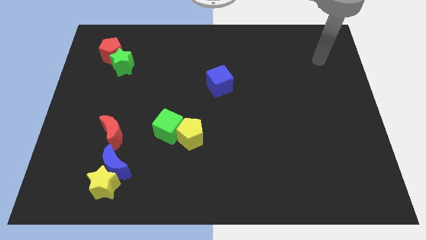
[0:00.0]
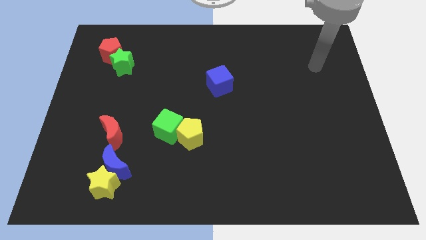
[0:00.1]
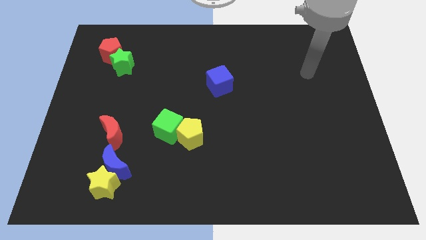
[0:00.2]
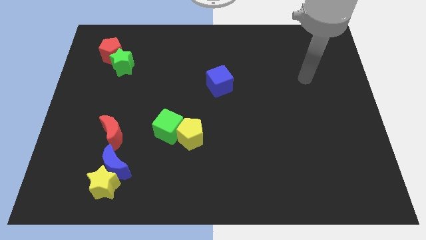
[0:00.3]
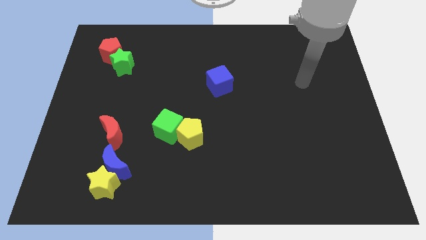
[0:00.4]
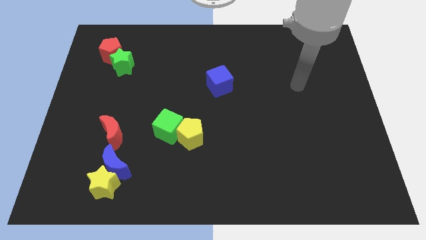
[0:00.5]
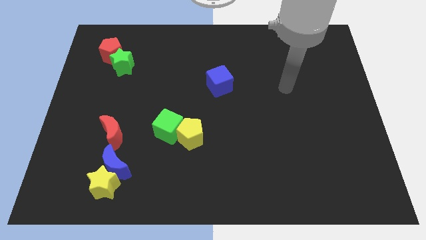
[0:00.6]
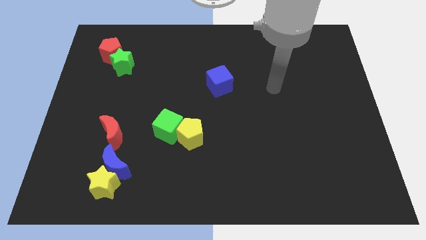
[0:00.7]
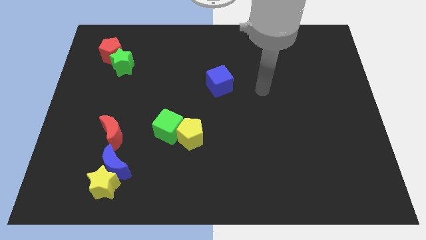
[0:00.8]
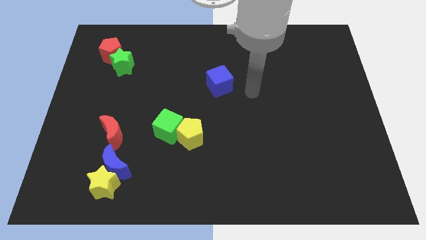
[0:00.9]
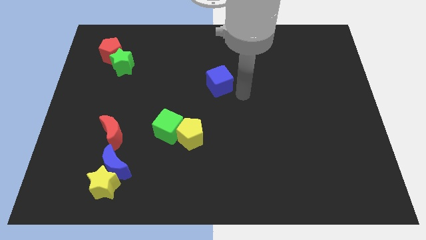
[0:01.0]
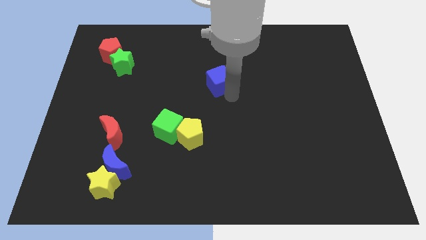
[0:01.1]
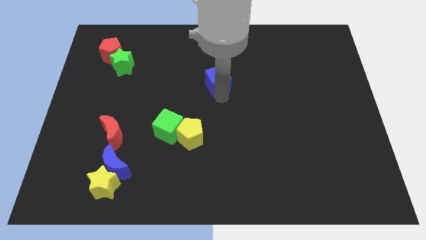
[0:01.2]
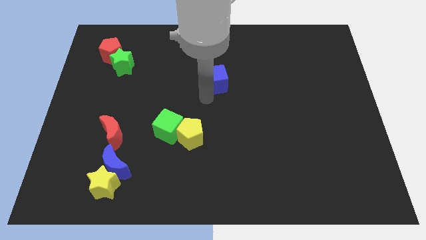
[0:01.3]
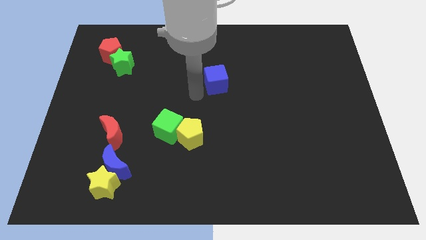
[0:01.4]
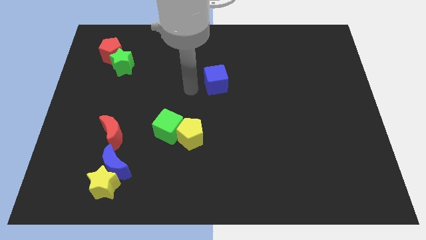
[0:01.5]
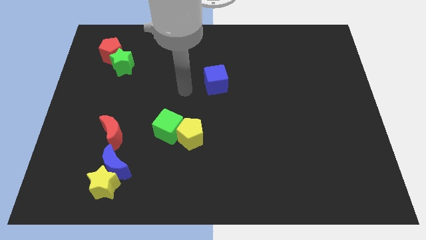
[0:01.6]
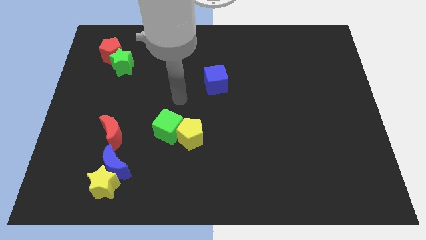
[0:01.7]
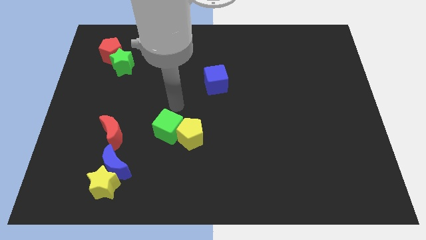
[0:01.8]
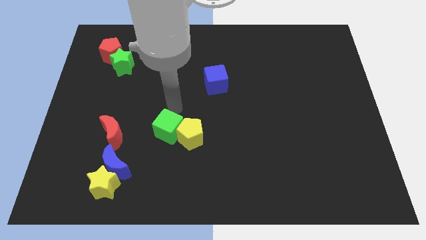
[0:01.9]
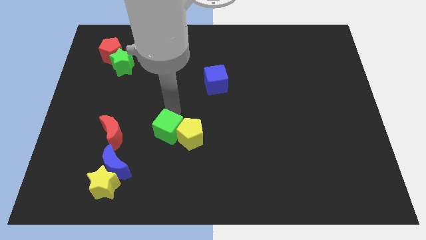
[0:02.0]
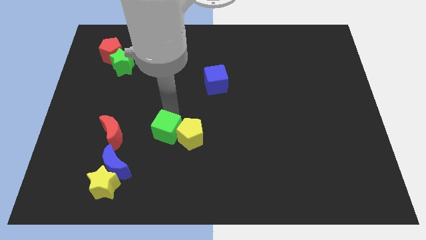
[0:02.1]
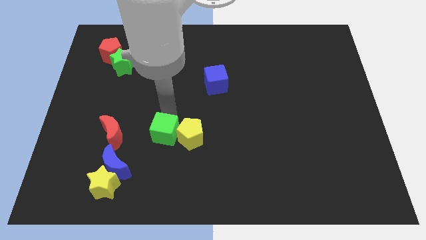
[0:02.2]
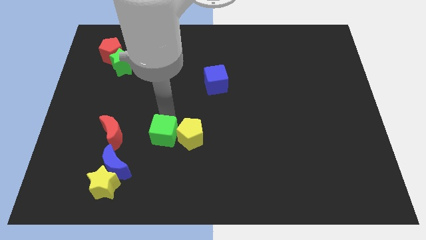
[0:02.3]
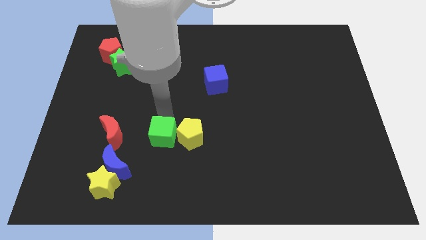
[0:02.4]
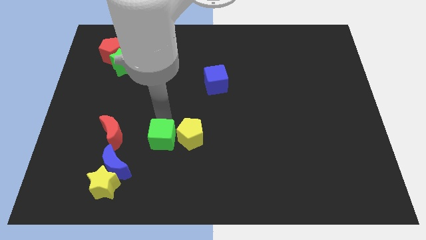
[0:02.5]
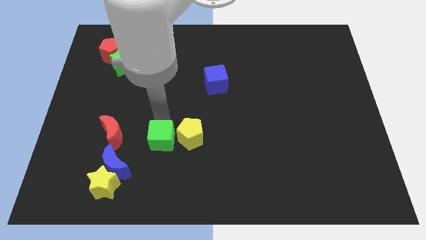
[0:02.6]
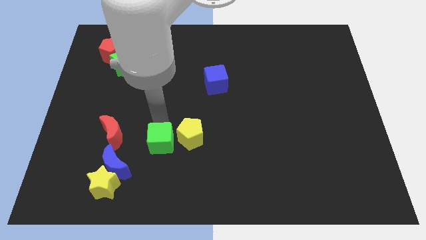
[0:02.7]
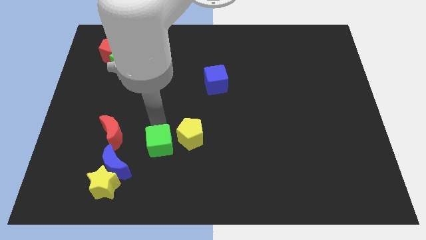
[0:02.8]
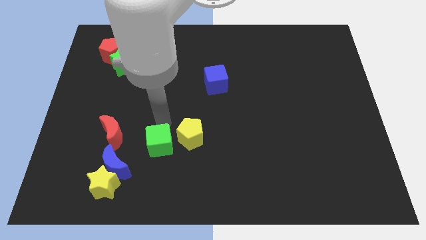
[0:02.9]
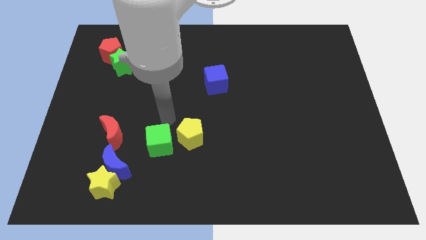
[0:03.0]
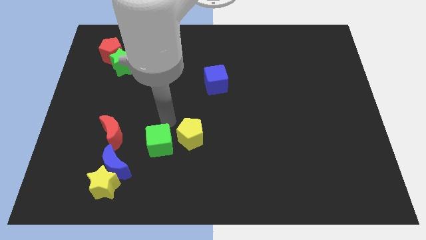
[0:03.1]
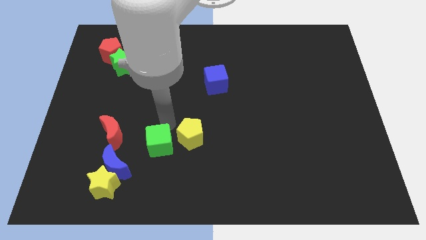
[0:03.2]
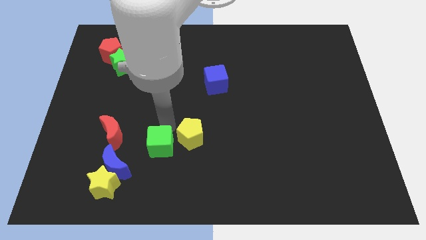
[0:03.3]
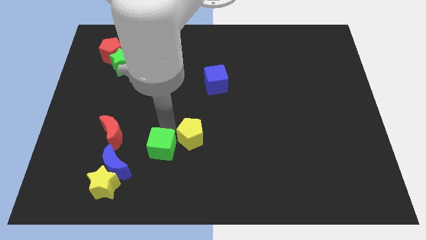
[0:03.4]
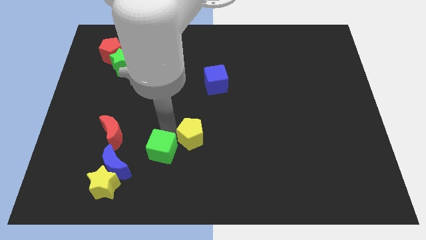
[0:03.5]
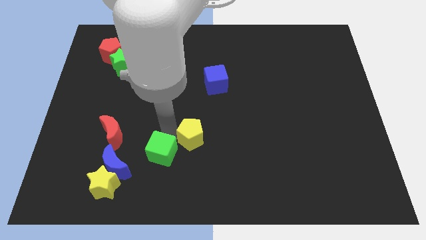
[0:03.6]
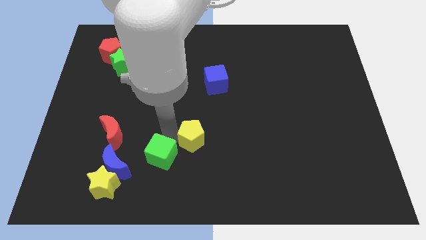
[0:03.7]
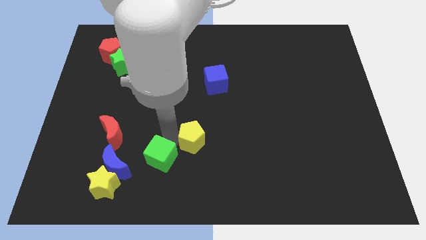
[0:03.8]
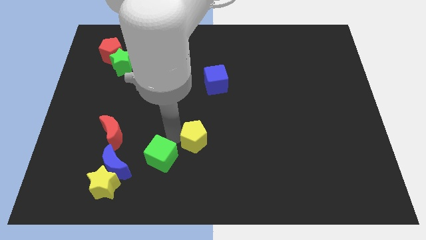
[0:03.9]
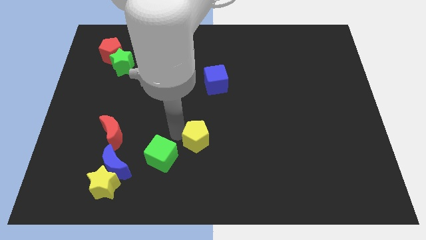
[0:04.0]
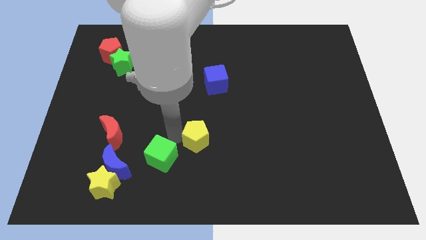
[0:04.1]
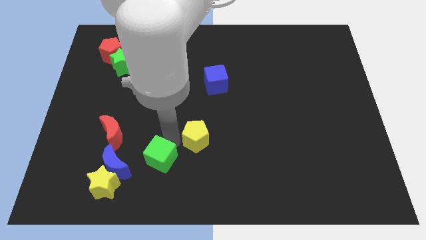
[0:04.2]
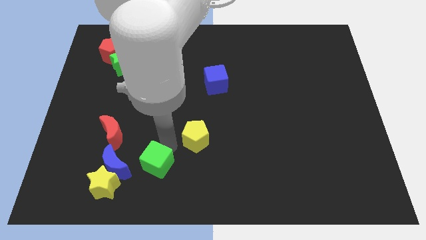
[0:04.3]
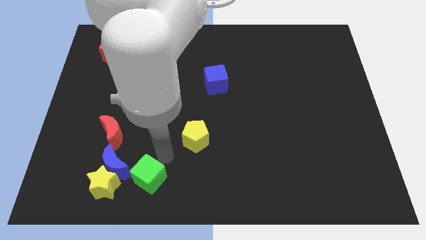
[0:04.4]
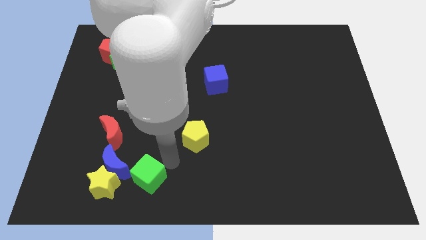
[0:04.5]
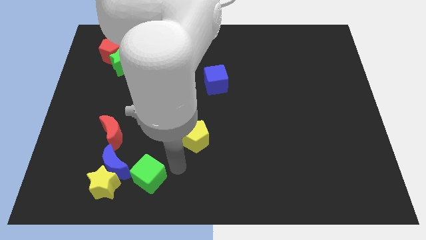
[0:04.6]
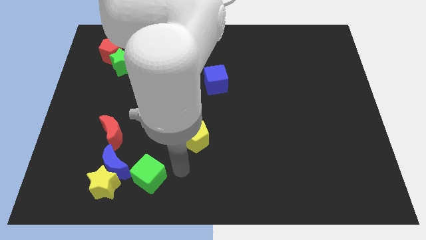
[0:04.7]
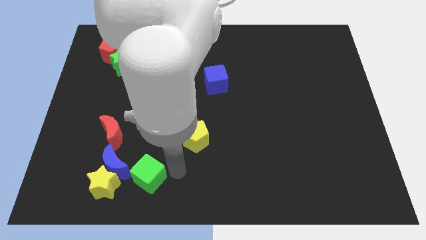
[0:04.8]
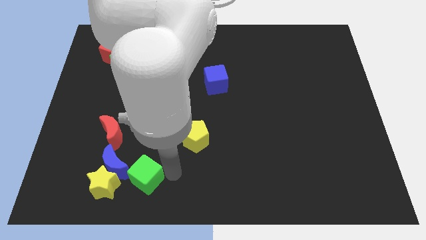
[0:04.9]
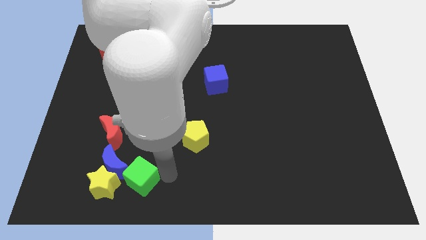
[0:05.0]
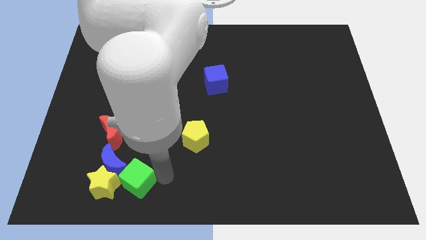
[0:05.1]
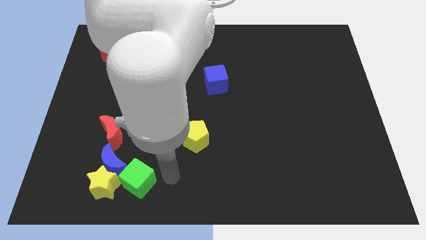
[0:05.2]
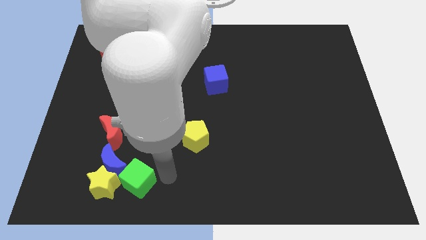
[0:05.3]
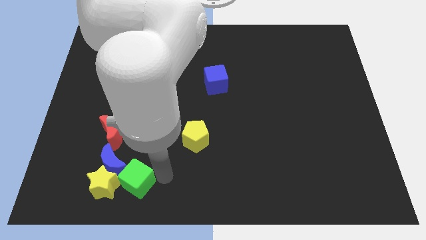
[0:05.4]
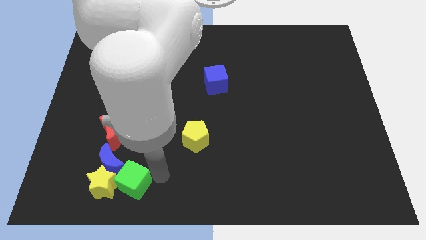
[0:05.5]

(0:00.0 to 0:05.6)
move the green cube to the yellow star

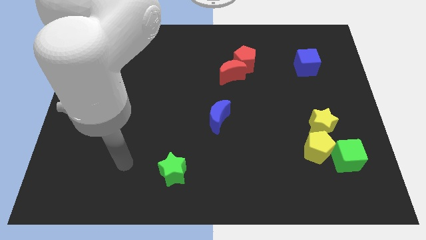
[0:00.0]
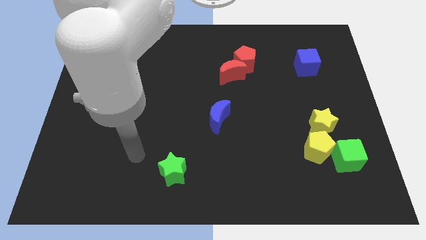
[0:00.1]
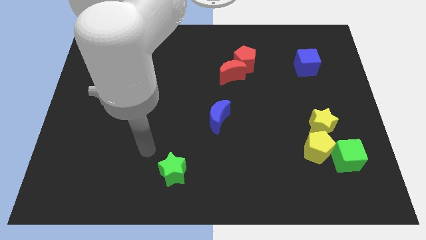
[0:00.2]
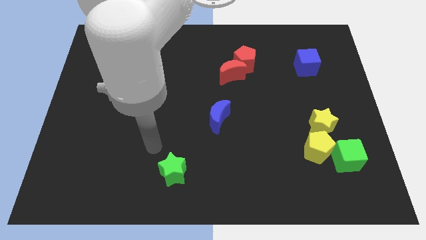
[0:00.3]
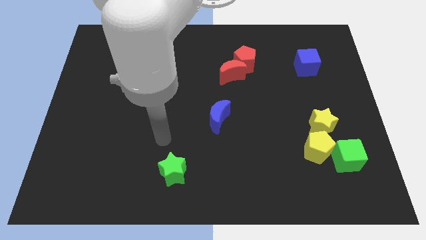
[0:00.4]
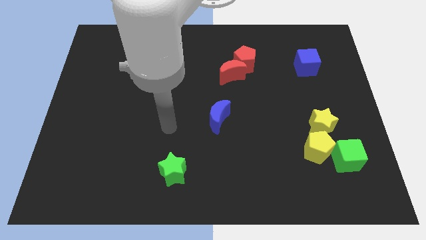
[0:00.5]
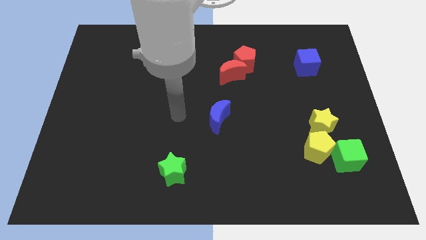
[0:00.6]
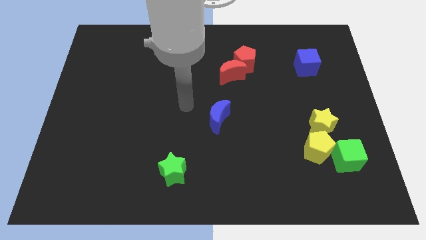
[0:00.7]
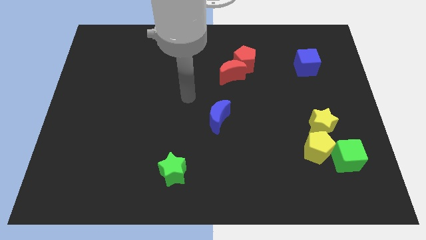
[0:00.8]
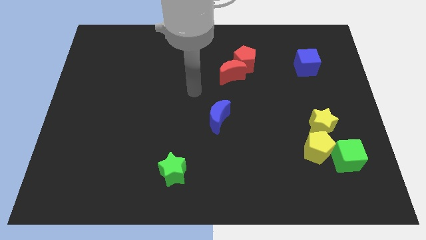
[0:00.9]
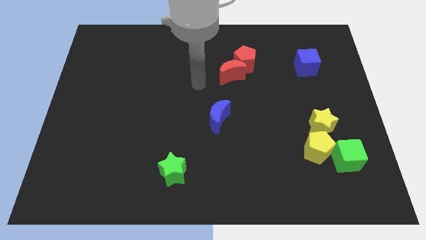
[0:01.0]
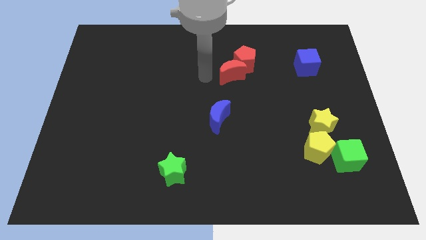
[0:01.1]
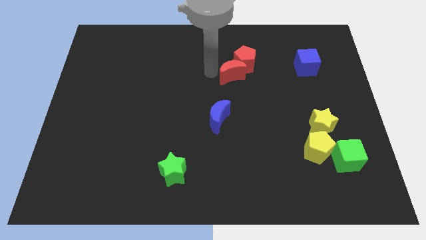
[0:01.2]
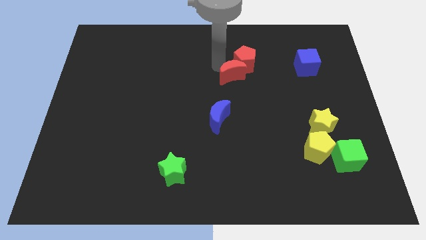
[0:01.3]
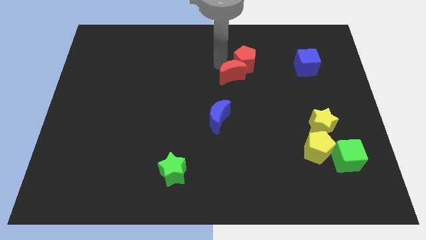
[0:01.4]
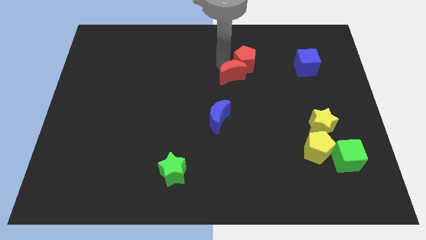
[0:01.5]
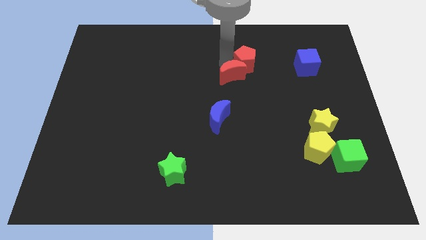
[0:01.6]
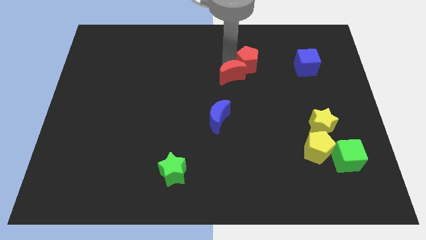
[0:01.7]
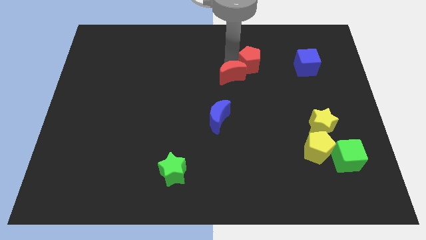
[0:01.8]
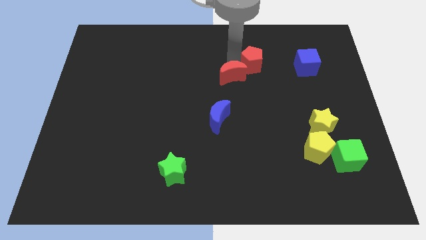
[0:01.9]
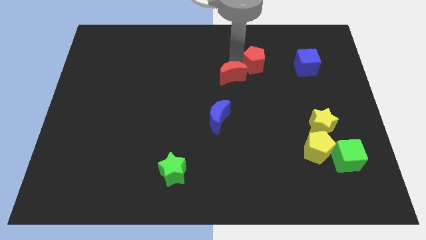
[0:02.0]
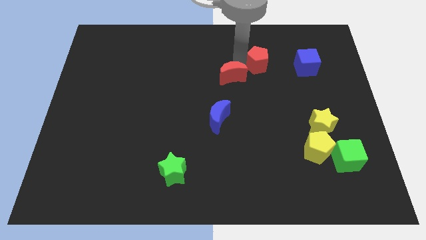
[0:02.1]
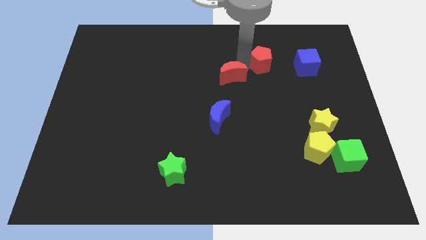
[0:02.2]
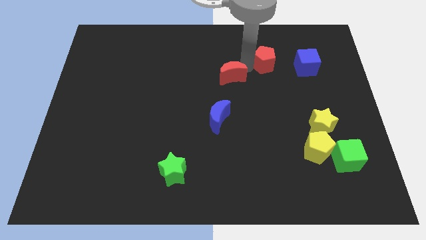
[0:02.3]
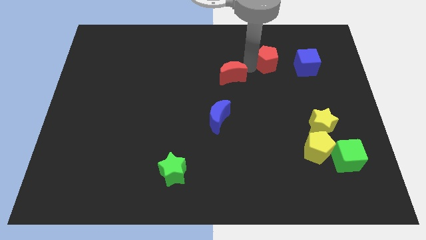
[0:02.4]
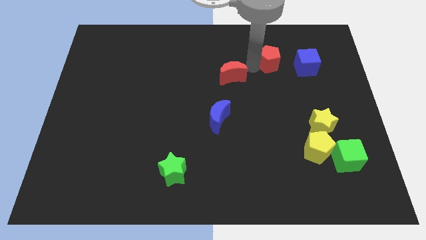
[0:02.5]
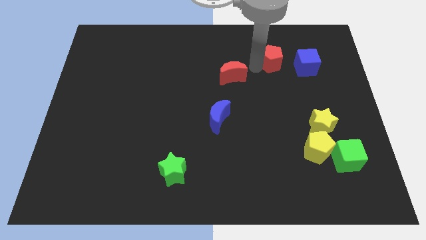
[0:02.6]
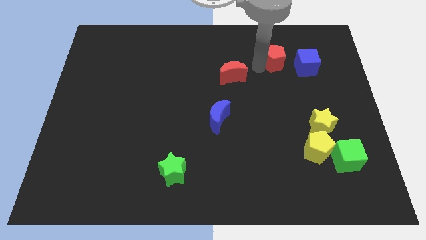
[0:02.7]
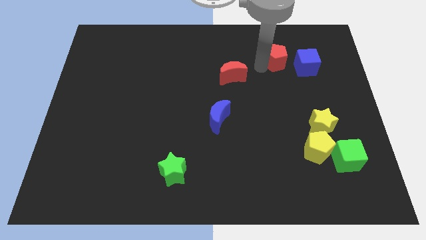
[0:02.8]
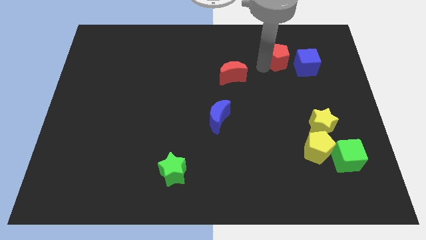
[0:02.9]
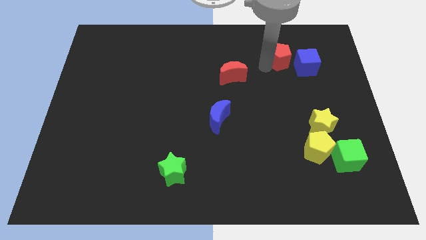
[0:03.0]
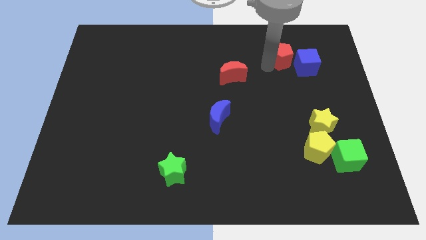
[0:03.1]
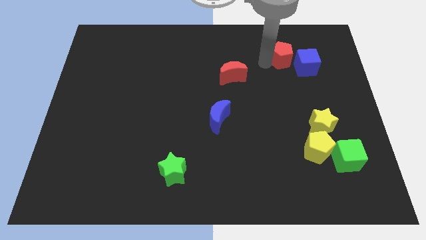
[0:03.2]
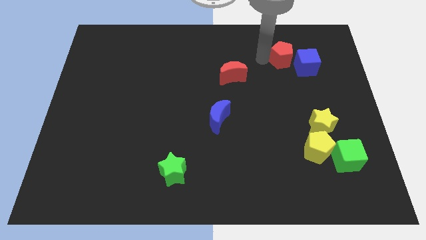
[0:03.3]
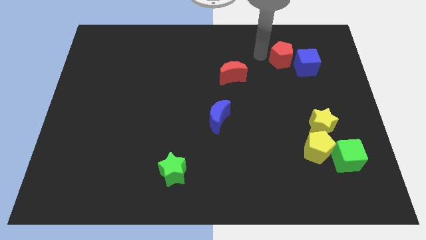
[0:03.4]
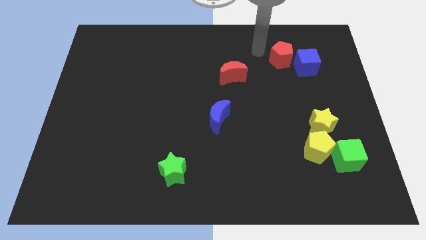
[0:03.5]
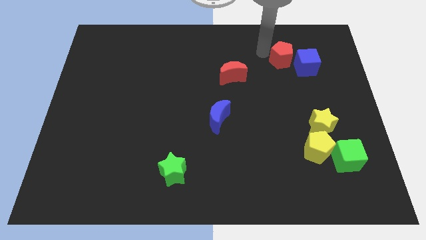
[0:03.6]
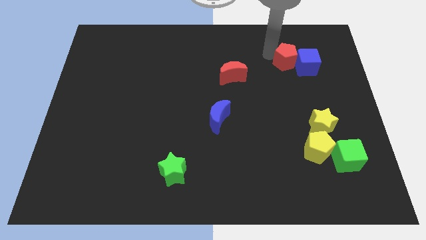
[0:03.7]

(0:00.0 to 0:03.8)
push the red pentagon close to the blue cube
